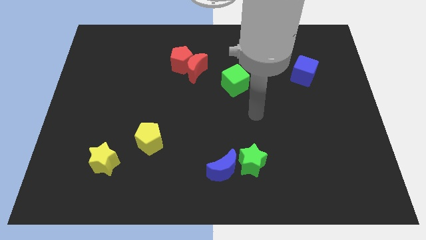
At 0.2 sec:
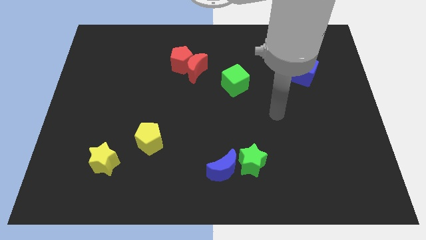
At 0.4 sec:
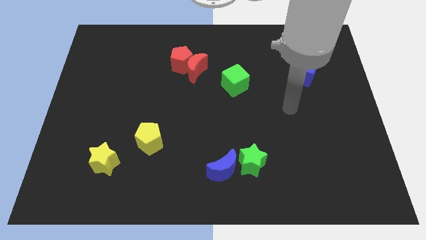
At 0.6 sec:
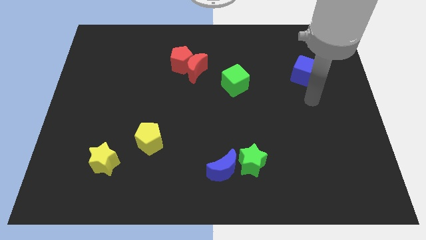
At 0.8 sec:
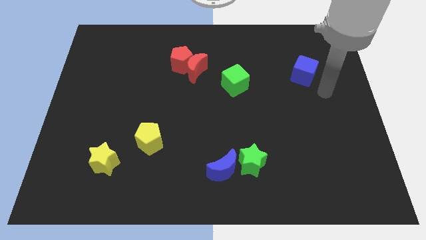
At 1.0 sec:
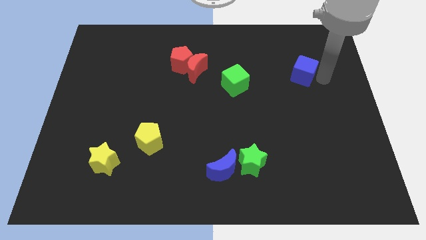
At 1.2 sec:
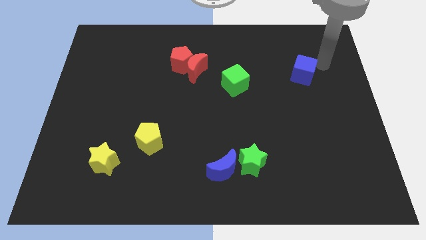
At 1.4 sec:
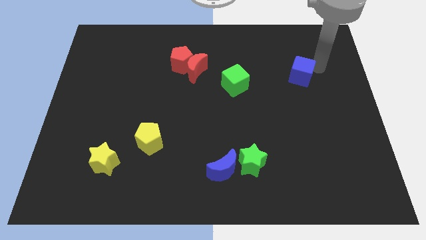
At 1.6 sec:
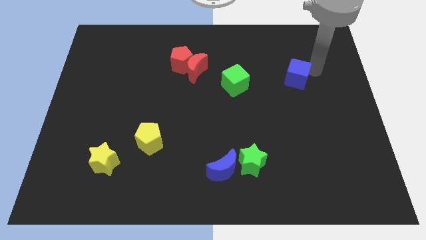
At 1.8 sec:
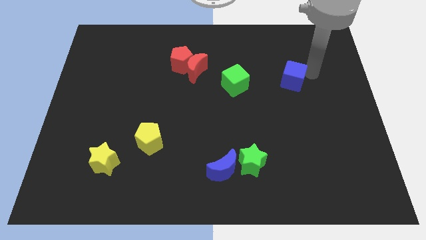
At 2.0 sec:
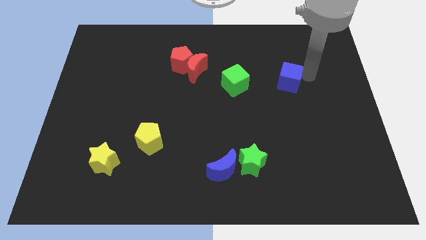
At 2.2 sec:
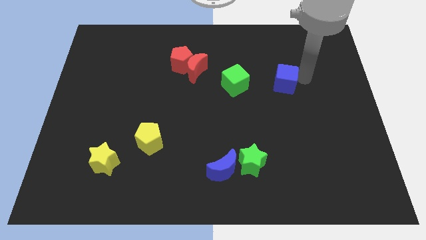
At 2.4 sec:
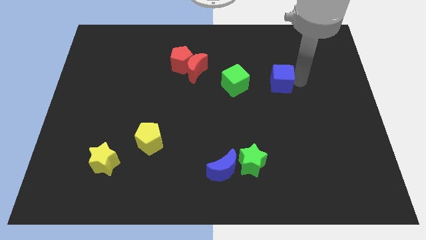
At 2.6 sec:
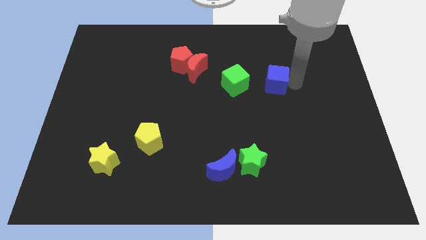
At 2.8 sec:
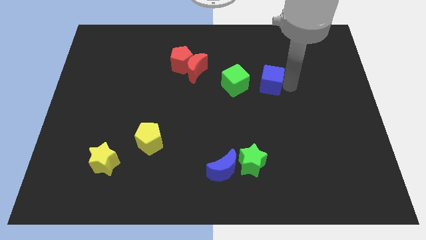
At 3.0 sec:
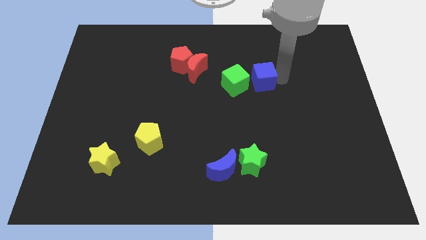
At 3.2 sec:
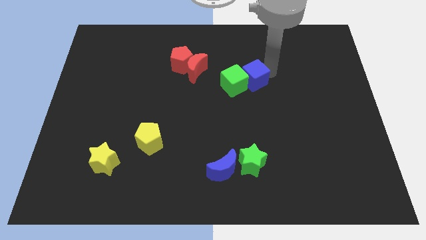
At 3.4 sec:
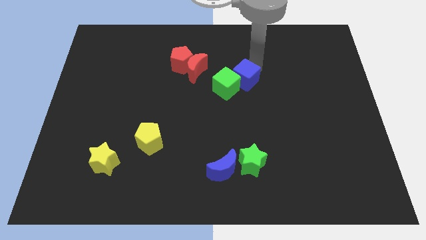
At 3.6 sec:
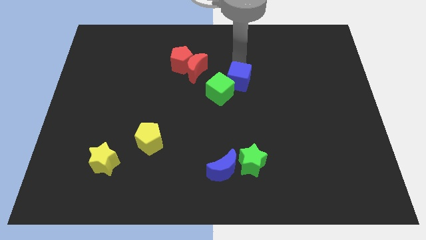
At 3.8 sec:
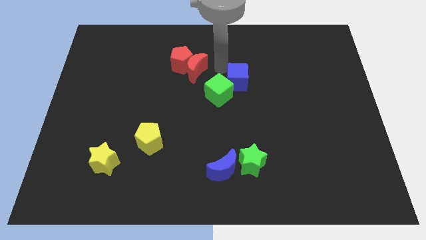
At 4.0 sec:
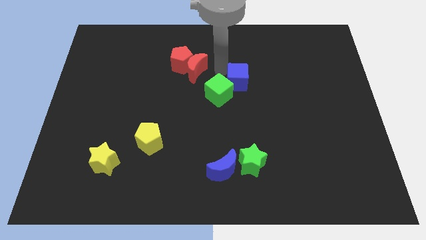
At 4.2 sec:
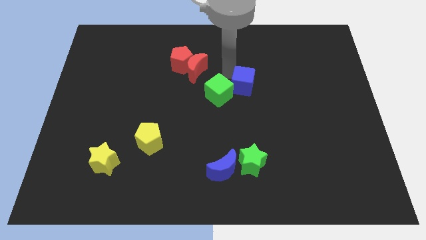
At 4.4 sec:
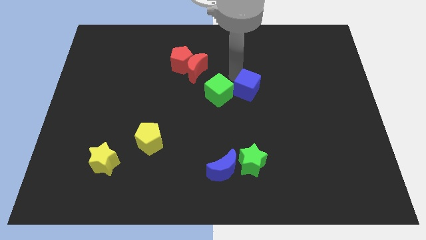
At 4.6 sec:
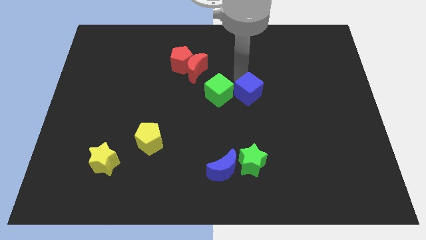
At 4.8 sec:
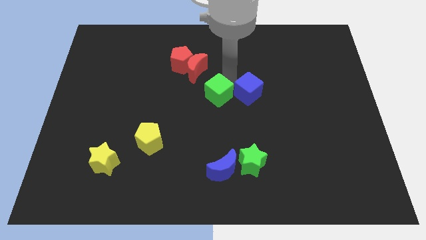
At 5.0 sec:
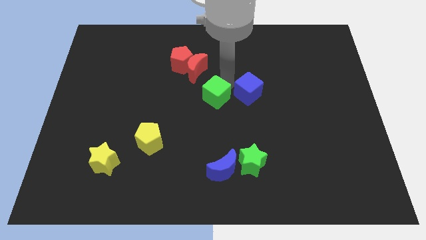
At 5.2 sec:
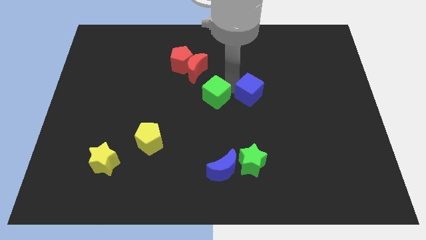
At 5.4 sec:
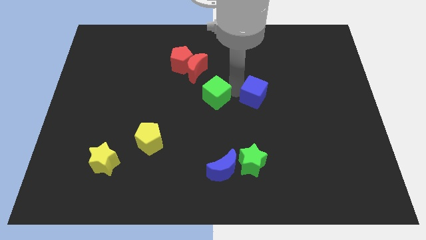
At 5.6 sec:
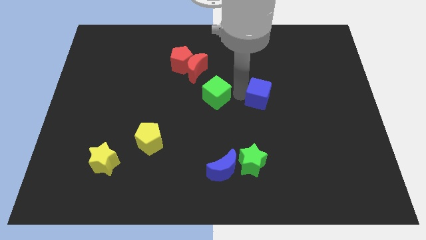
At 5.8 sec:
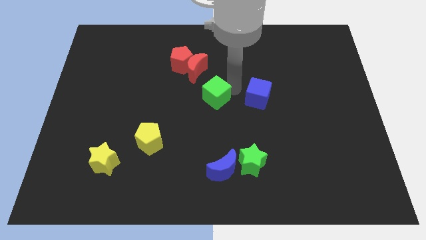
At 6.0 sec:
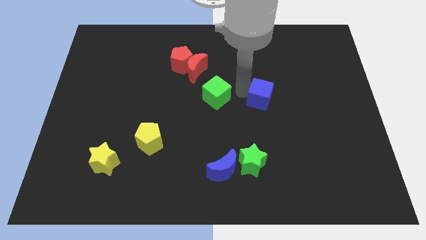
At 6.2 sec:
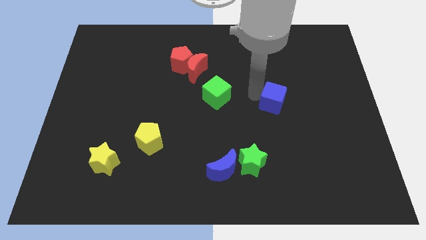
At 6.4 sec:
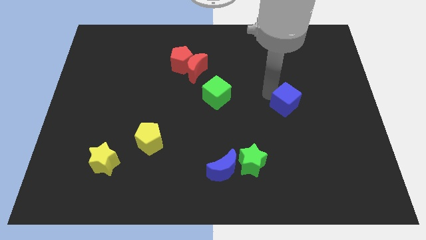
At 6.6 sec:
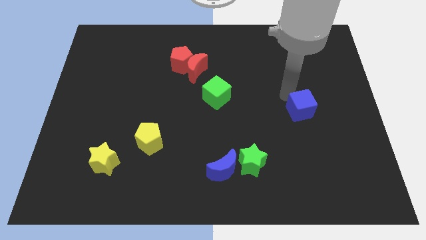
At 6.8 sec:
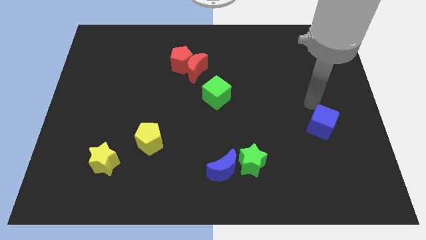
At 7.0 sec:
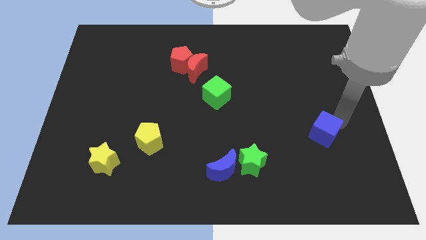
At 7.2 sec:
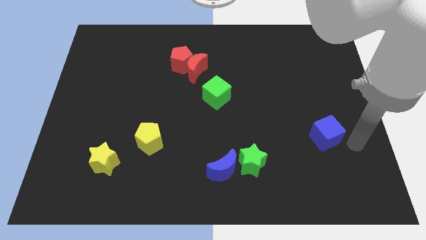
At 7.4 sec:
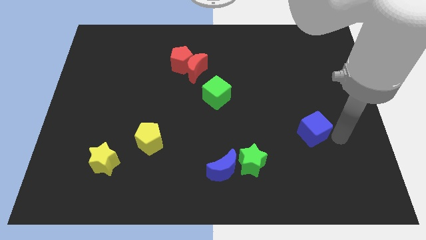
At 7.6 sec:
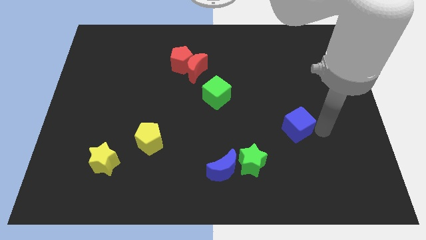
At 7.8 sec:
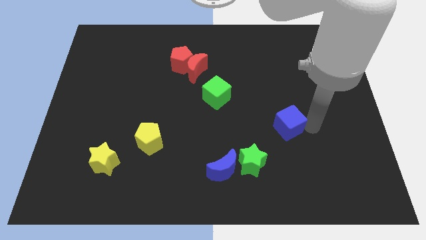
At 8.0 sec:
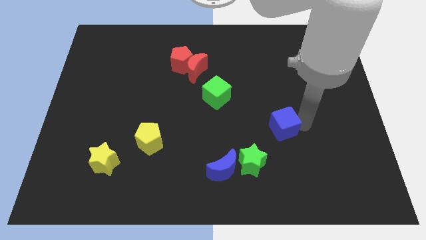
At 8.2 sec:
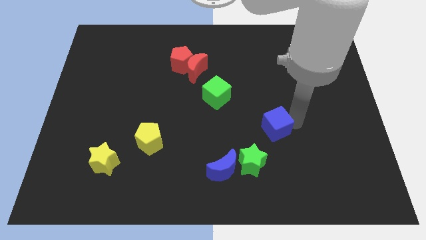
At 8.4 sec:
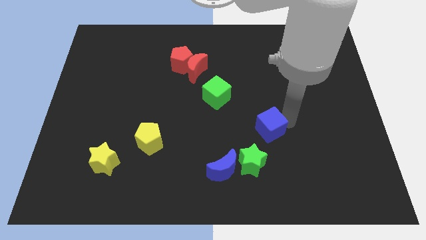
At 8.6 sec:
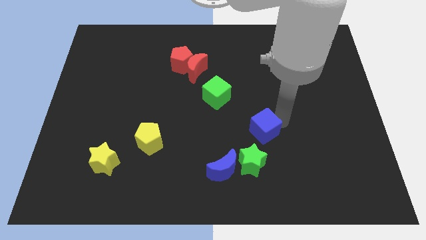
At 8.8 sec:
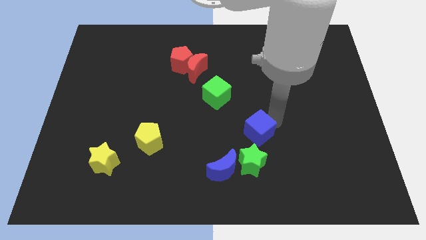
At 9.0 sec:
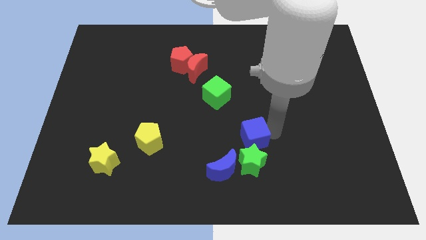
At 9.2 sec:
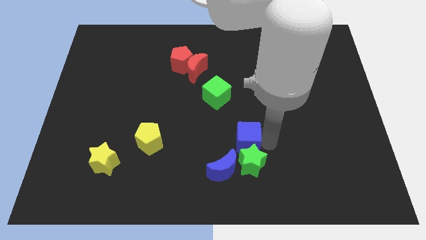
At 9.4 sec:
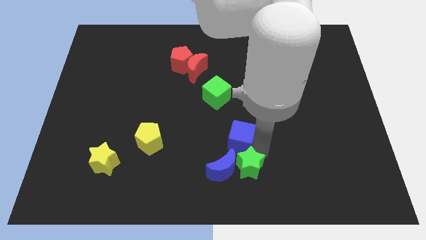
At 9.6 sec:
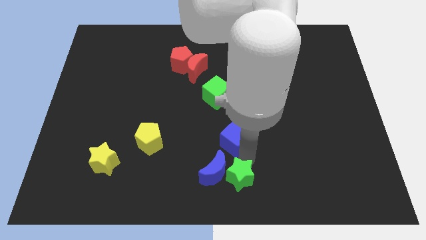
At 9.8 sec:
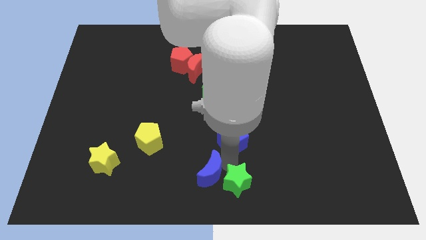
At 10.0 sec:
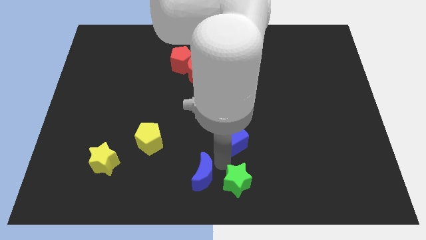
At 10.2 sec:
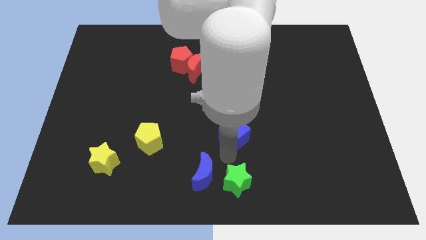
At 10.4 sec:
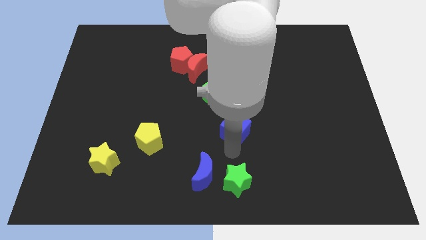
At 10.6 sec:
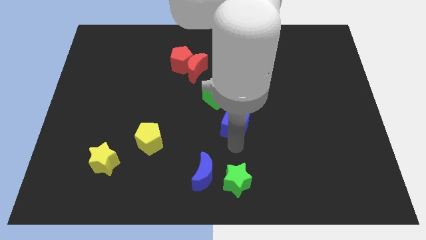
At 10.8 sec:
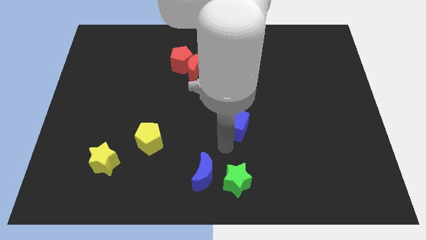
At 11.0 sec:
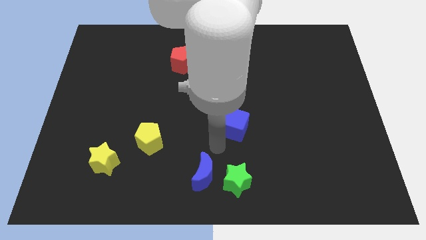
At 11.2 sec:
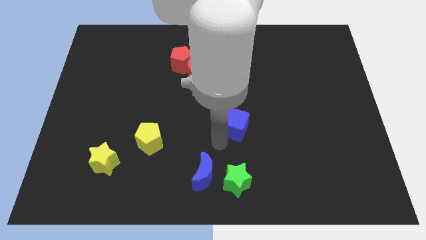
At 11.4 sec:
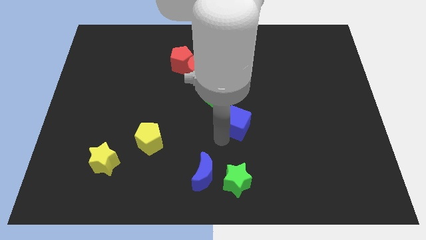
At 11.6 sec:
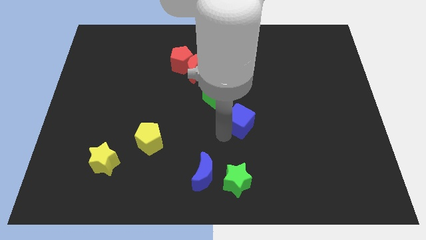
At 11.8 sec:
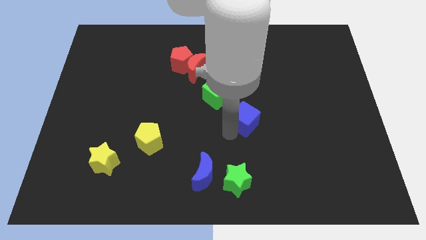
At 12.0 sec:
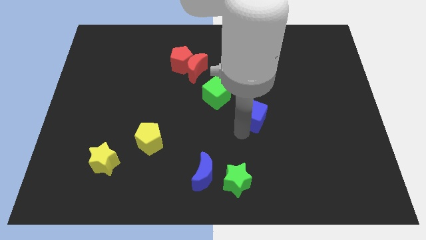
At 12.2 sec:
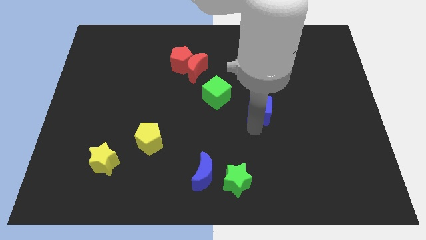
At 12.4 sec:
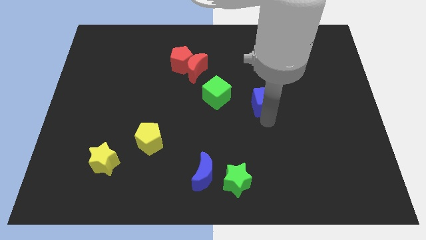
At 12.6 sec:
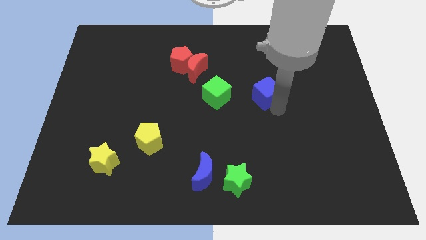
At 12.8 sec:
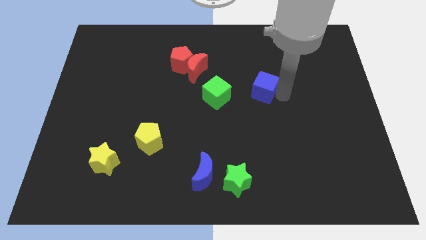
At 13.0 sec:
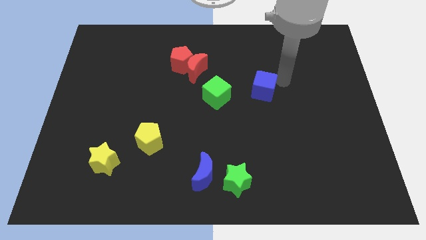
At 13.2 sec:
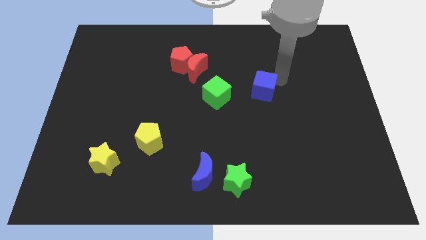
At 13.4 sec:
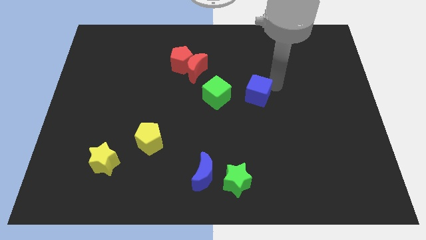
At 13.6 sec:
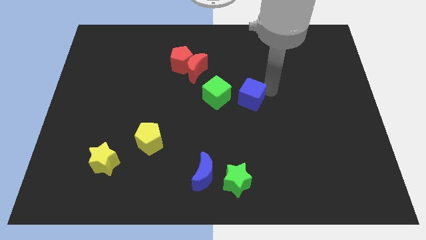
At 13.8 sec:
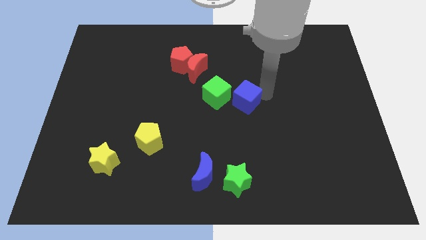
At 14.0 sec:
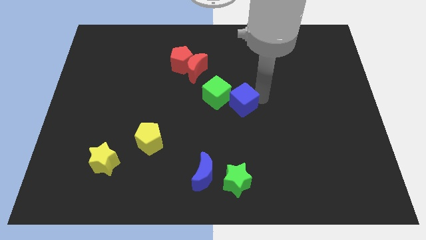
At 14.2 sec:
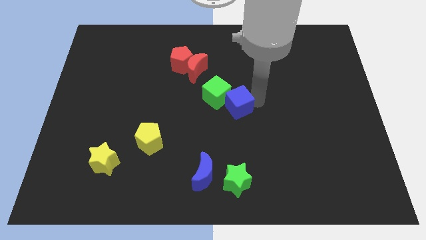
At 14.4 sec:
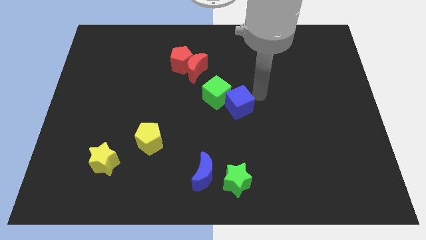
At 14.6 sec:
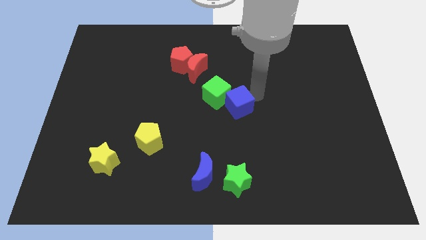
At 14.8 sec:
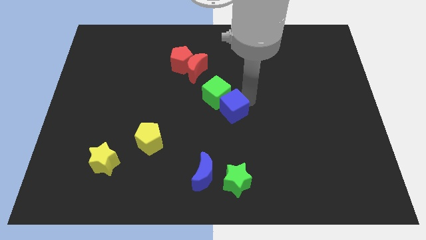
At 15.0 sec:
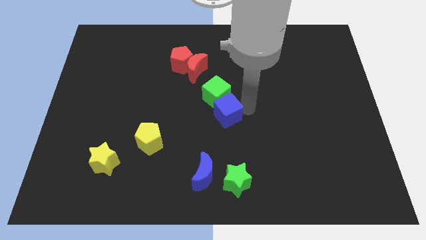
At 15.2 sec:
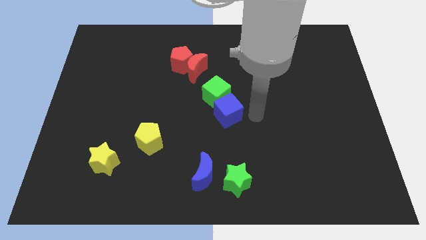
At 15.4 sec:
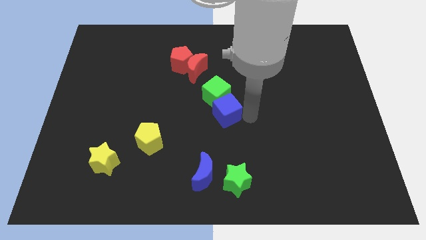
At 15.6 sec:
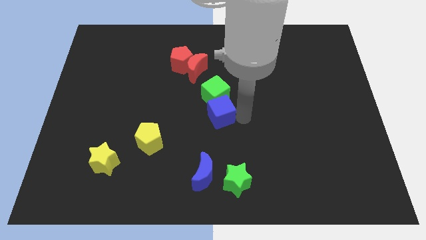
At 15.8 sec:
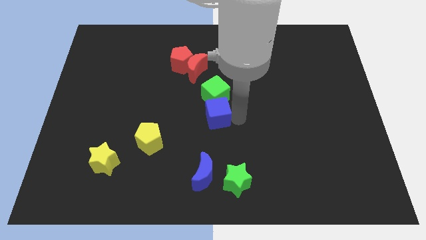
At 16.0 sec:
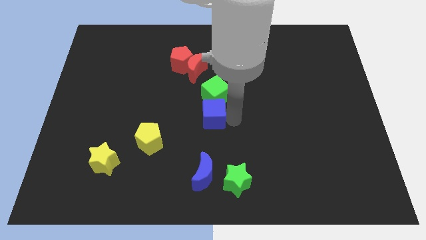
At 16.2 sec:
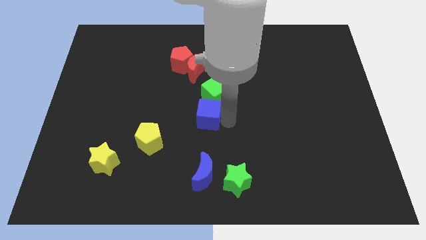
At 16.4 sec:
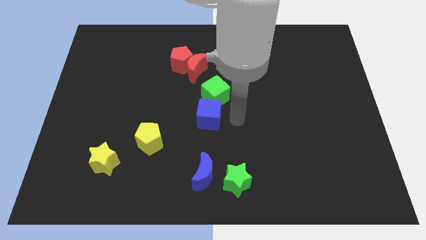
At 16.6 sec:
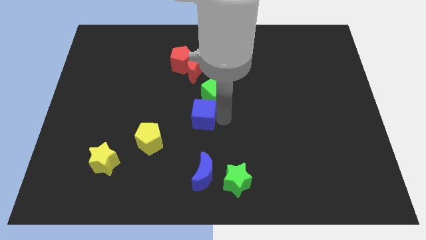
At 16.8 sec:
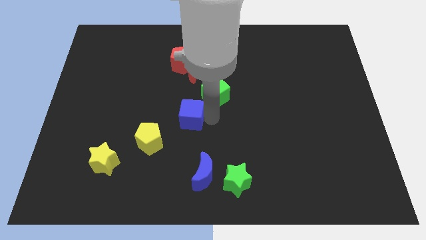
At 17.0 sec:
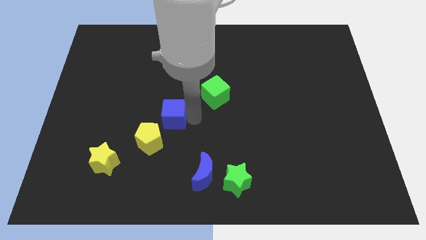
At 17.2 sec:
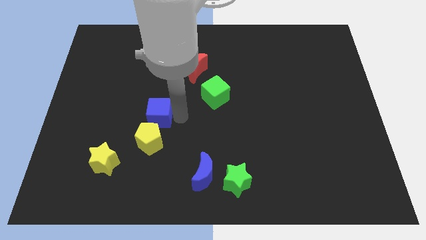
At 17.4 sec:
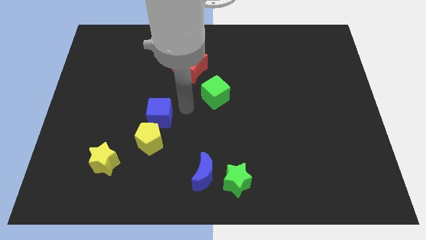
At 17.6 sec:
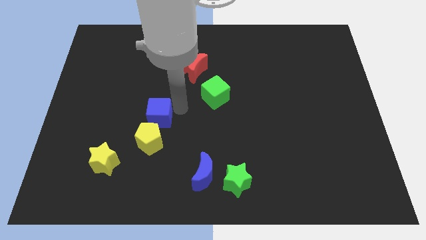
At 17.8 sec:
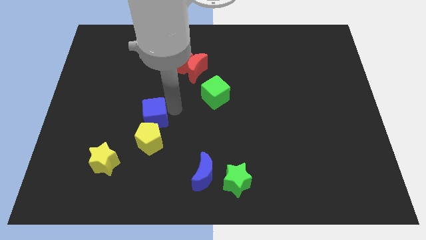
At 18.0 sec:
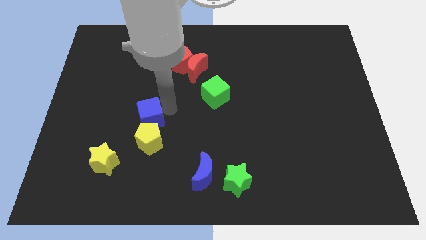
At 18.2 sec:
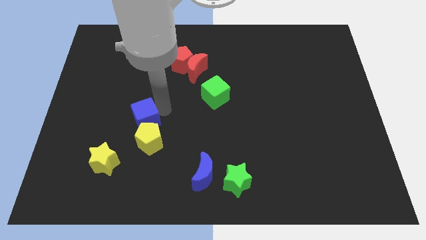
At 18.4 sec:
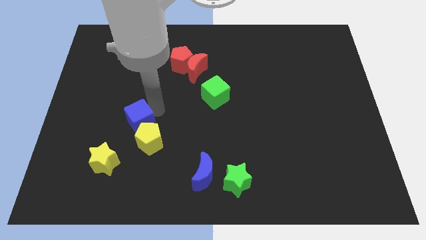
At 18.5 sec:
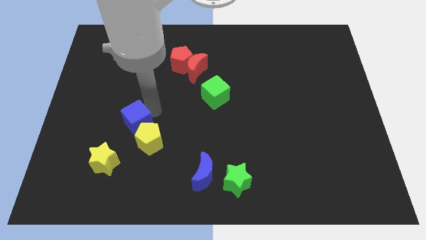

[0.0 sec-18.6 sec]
slide the blue cube to the top right side of the yellow star
